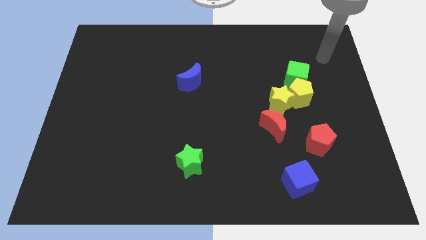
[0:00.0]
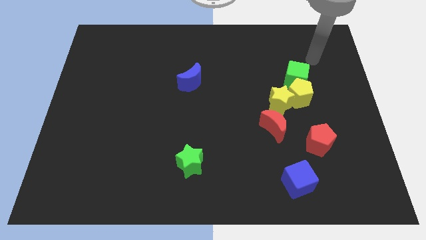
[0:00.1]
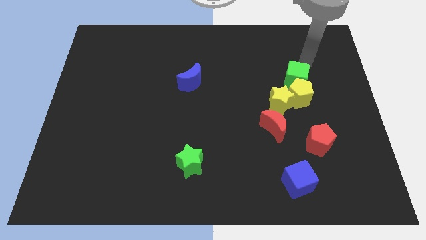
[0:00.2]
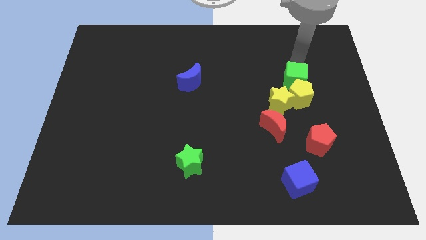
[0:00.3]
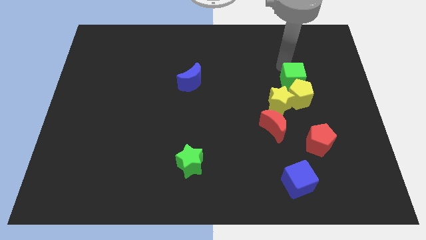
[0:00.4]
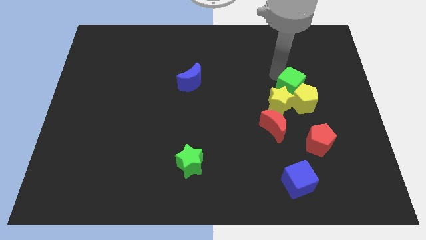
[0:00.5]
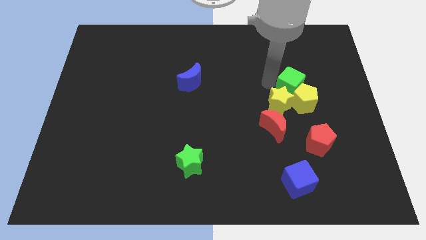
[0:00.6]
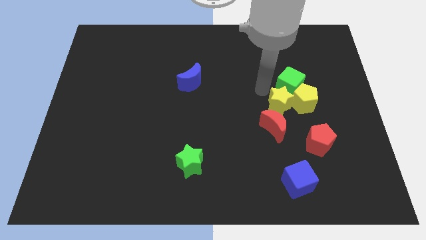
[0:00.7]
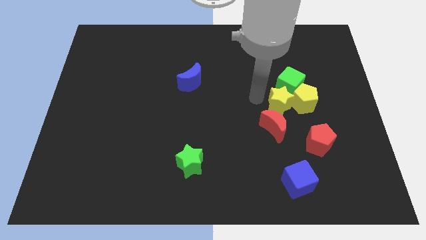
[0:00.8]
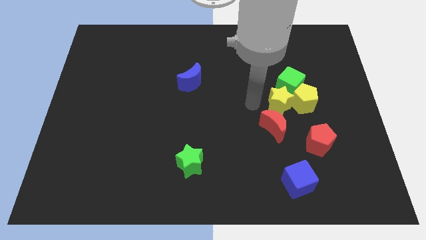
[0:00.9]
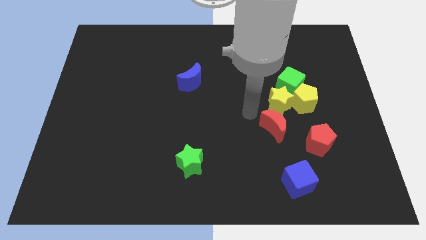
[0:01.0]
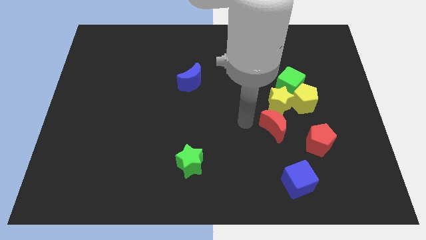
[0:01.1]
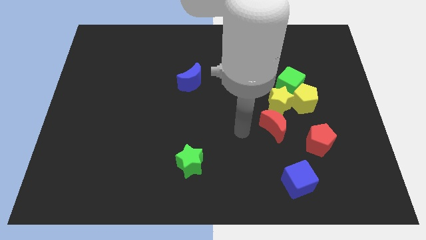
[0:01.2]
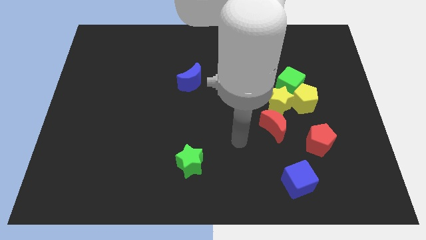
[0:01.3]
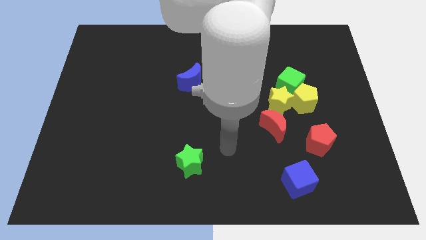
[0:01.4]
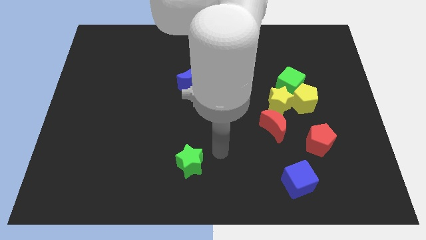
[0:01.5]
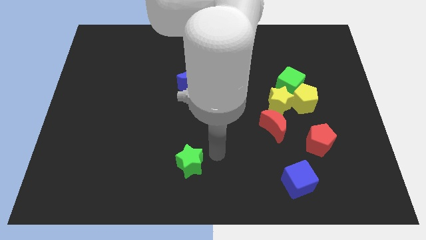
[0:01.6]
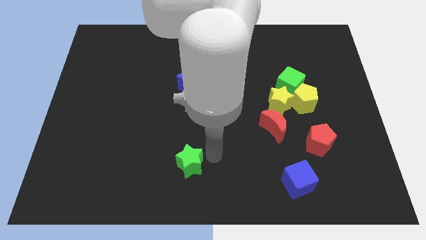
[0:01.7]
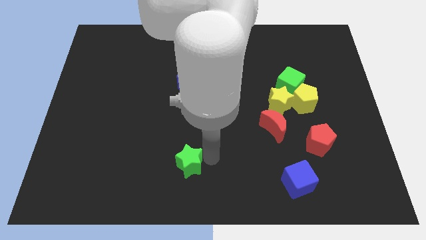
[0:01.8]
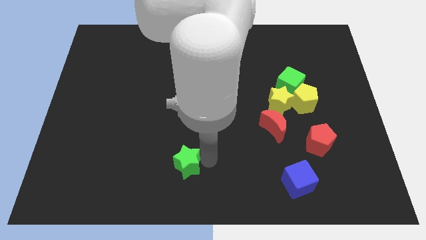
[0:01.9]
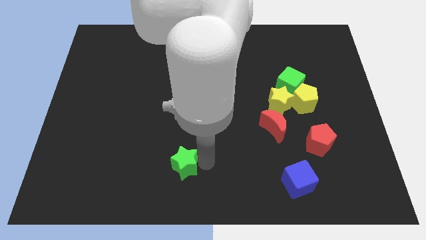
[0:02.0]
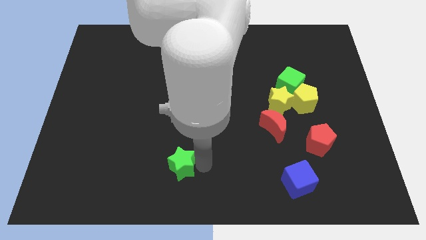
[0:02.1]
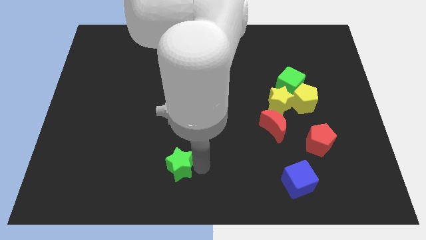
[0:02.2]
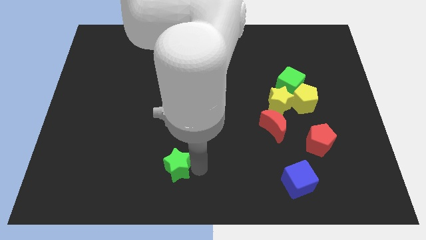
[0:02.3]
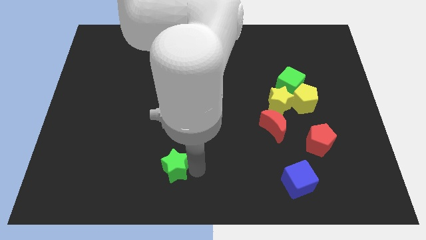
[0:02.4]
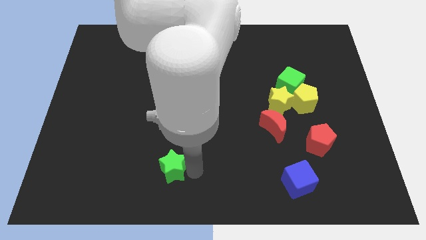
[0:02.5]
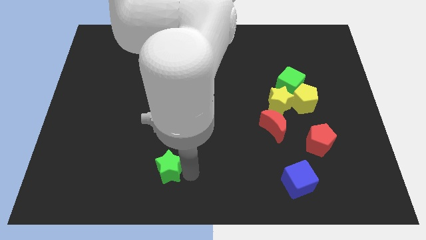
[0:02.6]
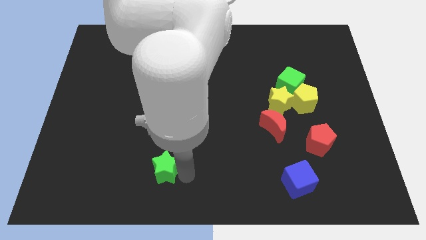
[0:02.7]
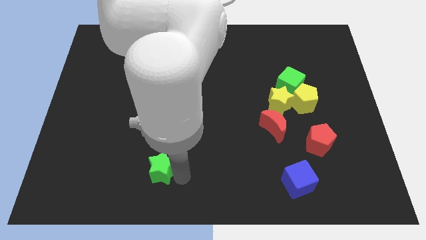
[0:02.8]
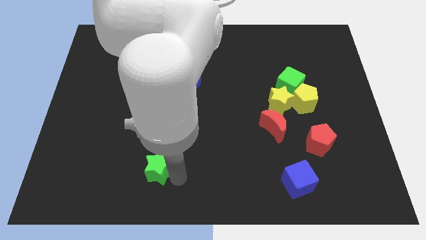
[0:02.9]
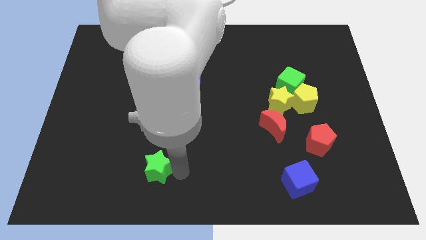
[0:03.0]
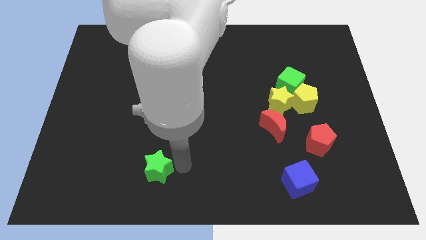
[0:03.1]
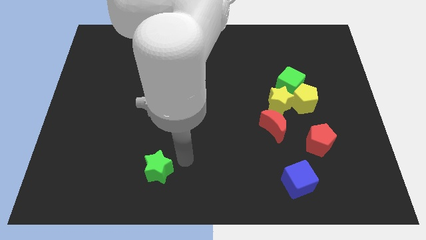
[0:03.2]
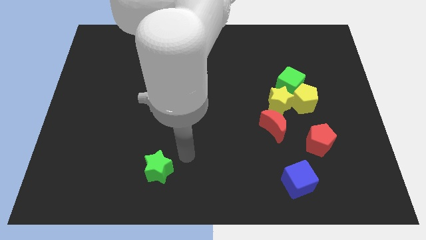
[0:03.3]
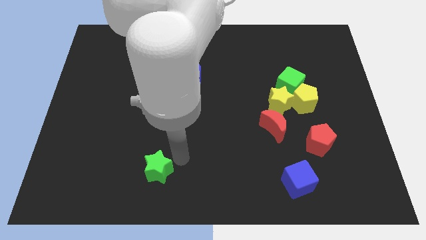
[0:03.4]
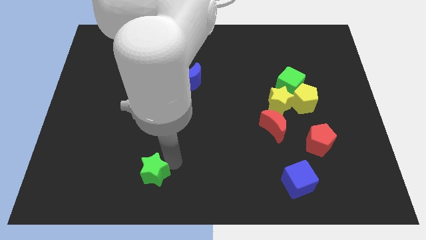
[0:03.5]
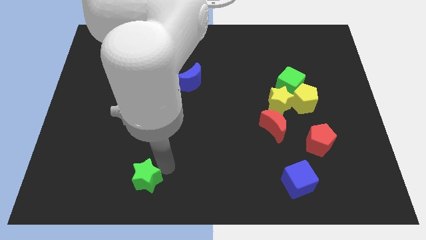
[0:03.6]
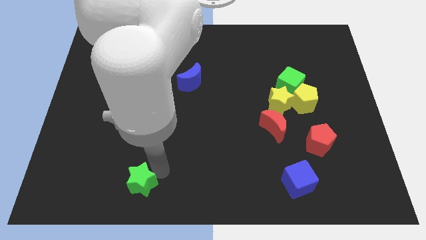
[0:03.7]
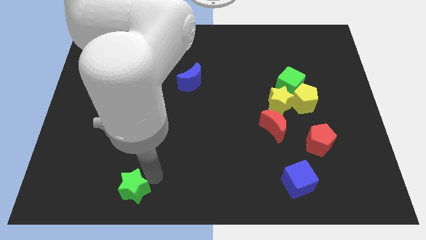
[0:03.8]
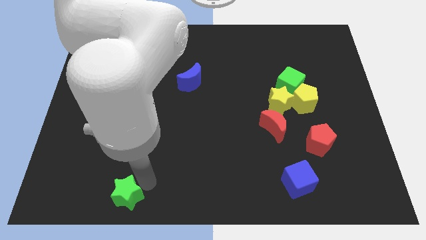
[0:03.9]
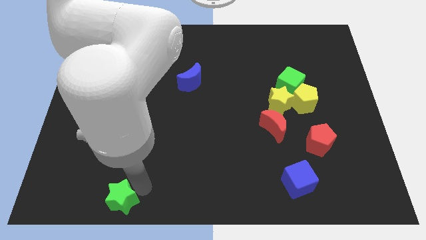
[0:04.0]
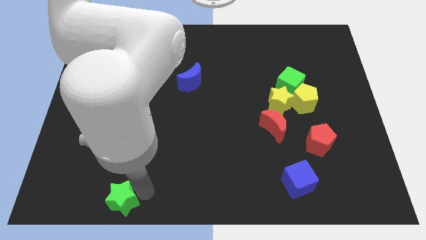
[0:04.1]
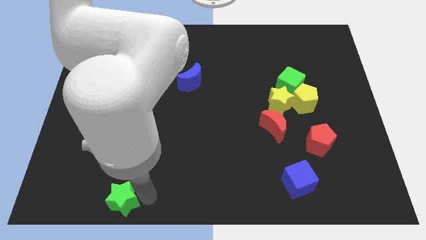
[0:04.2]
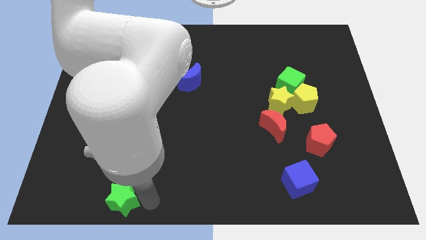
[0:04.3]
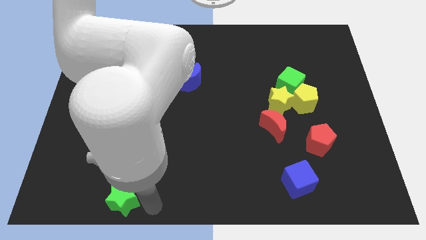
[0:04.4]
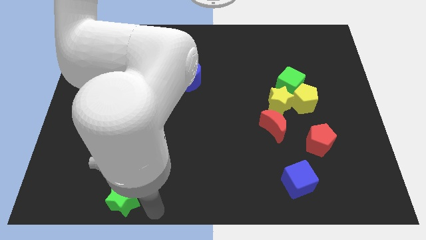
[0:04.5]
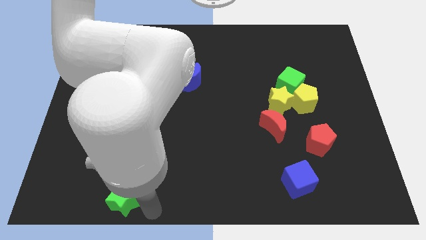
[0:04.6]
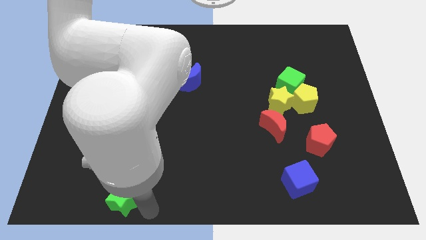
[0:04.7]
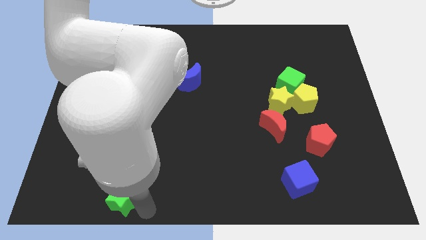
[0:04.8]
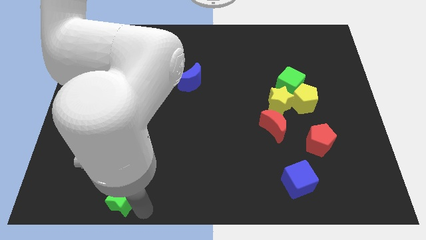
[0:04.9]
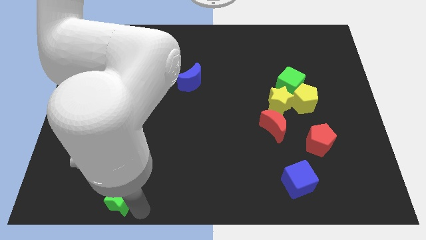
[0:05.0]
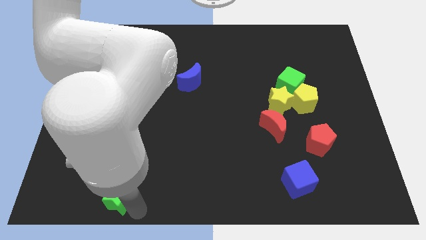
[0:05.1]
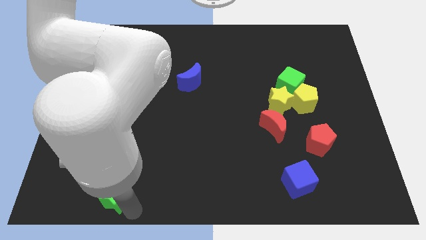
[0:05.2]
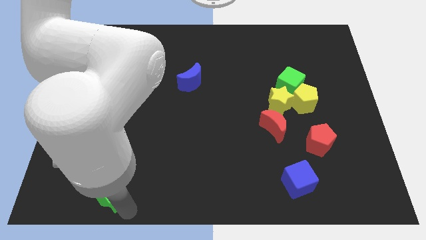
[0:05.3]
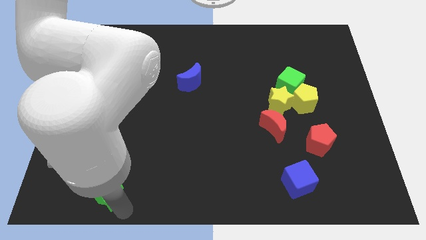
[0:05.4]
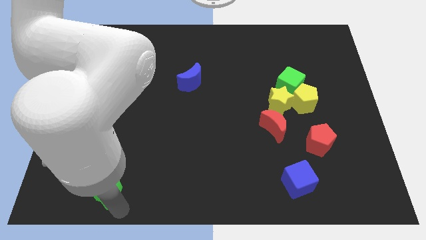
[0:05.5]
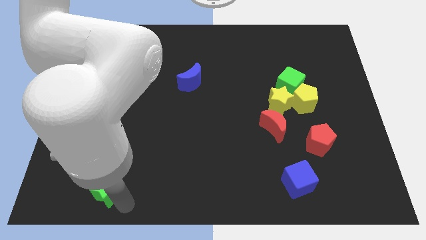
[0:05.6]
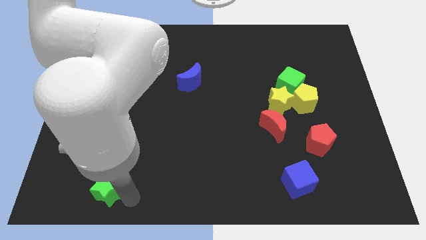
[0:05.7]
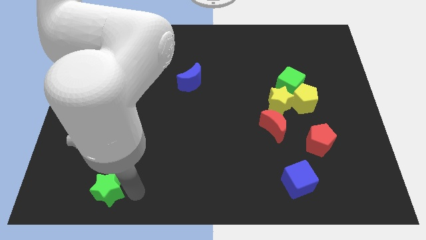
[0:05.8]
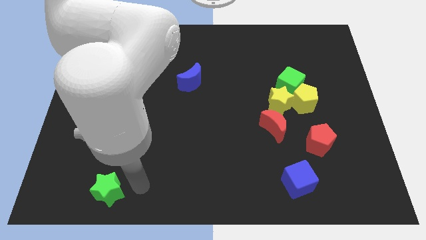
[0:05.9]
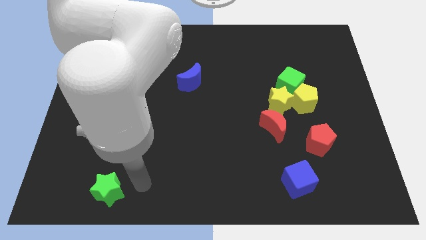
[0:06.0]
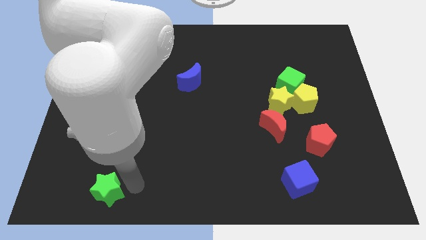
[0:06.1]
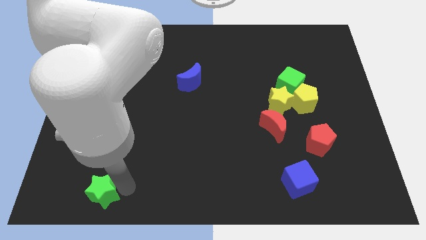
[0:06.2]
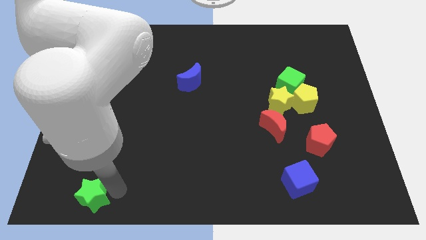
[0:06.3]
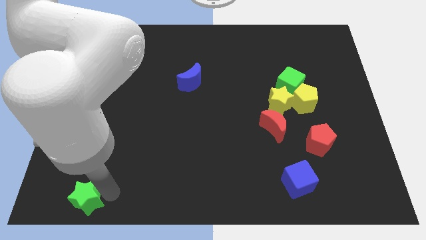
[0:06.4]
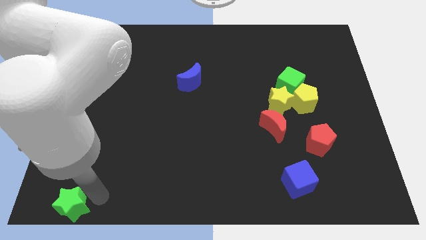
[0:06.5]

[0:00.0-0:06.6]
move the green star to the bottom left corner

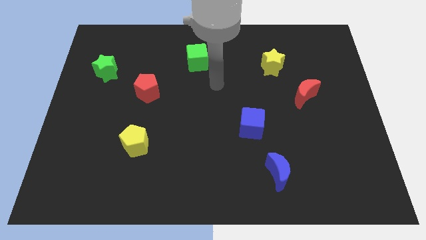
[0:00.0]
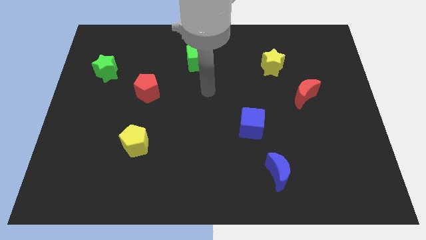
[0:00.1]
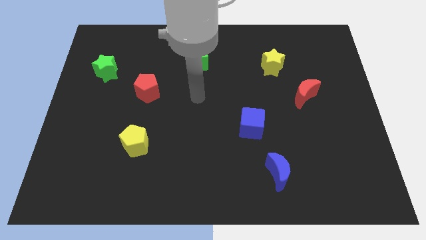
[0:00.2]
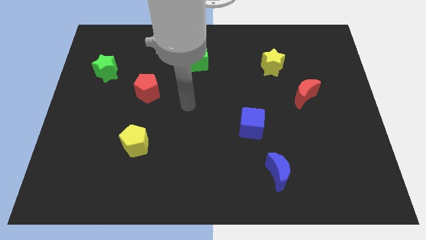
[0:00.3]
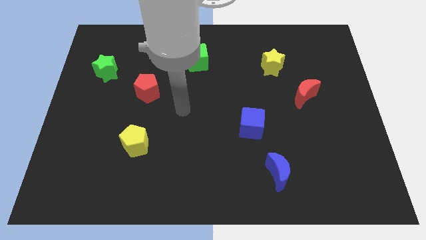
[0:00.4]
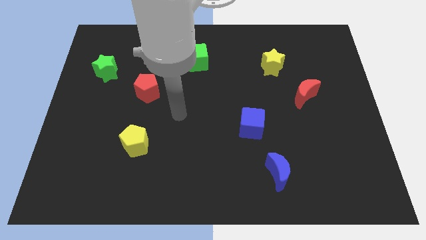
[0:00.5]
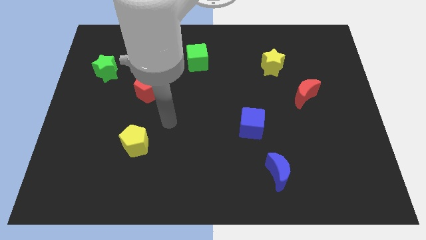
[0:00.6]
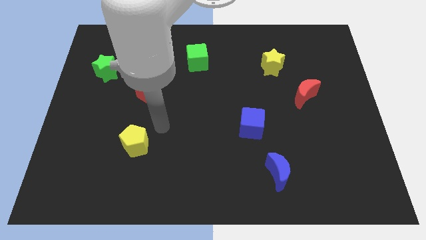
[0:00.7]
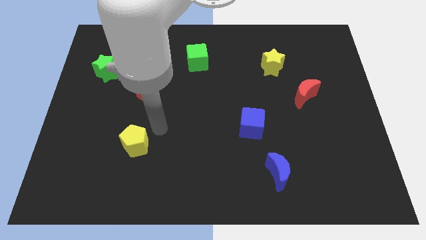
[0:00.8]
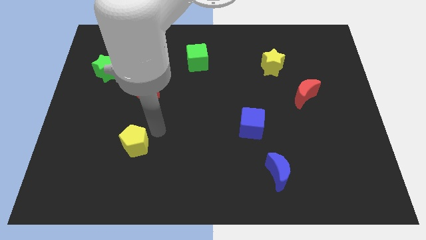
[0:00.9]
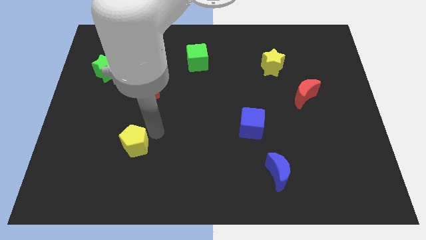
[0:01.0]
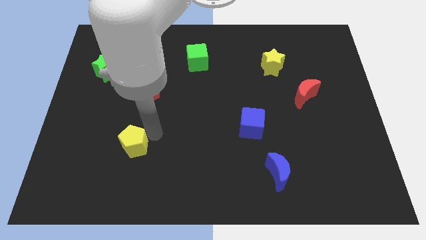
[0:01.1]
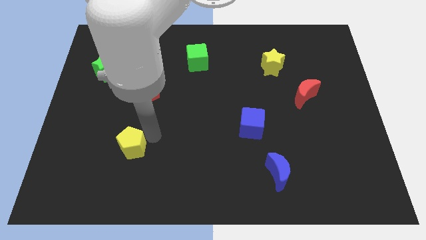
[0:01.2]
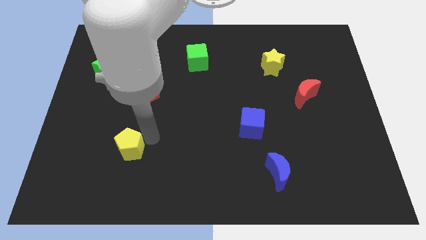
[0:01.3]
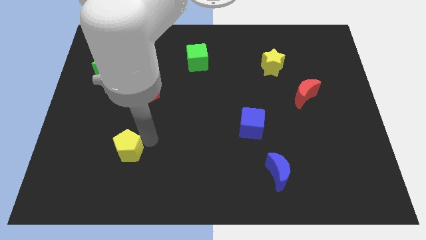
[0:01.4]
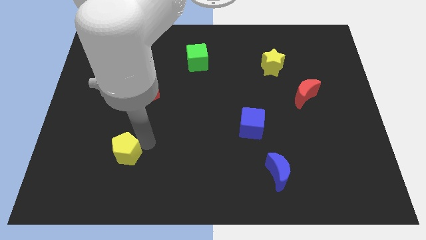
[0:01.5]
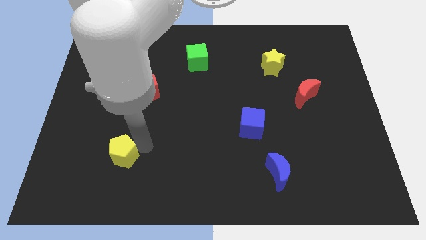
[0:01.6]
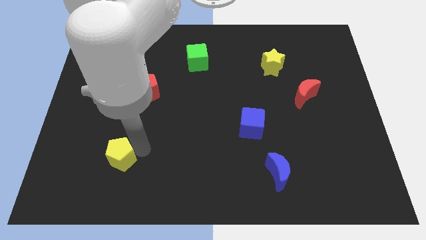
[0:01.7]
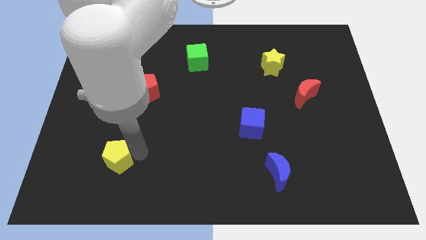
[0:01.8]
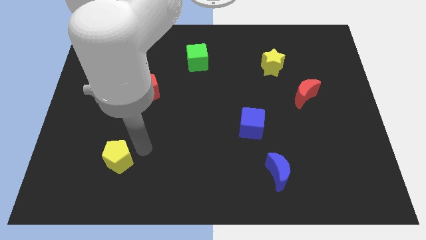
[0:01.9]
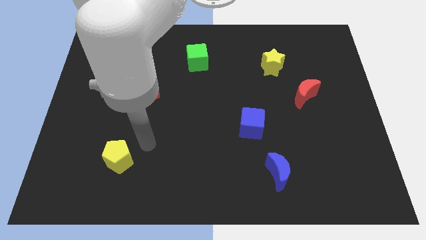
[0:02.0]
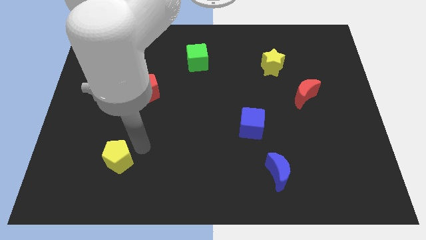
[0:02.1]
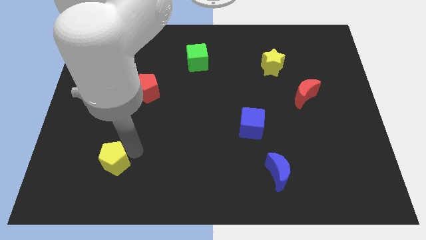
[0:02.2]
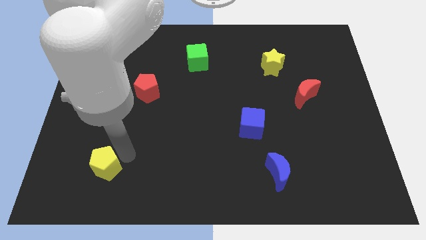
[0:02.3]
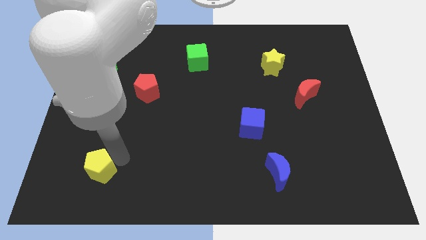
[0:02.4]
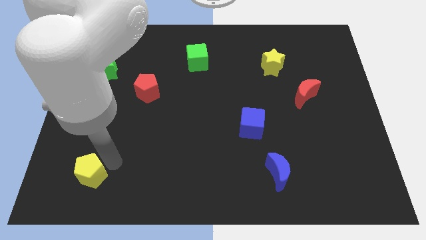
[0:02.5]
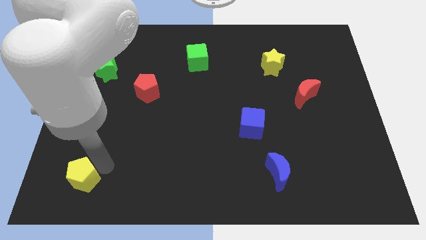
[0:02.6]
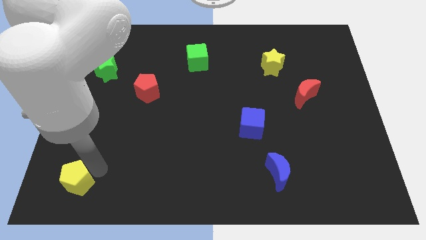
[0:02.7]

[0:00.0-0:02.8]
slide the yellow pentagon to the bottom left corner
